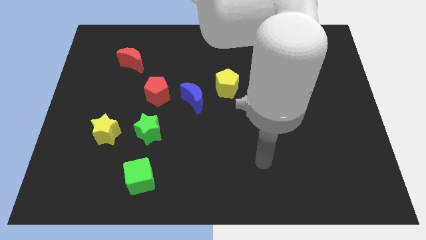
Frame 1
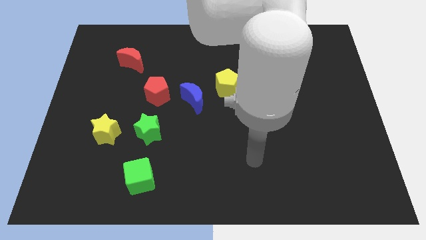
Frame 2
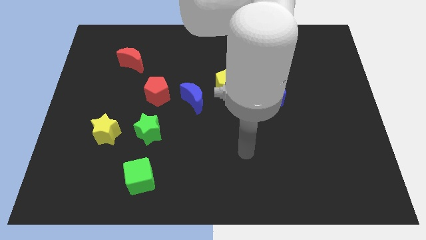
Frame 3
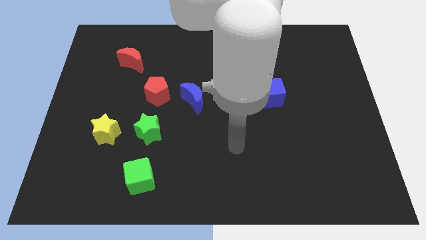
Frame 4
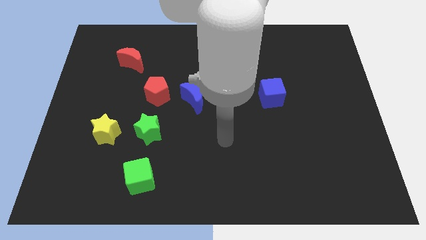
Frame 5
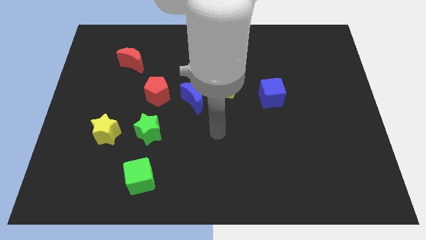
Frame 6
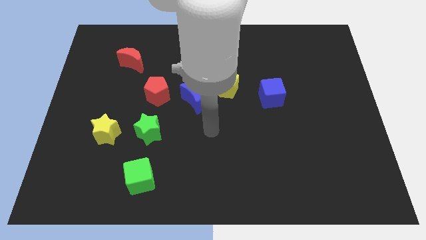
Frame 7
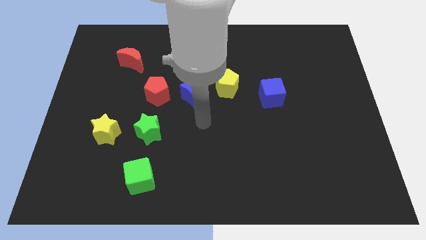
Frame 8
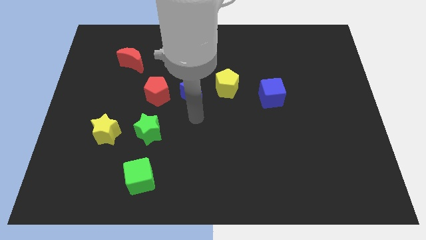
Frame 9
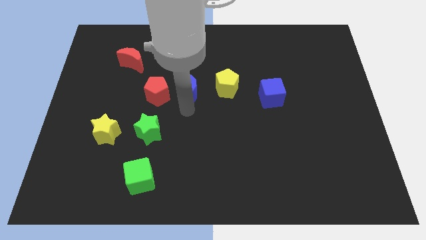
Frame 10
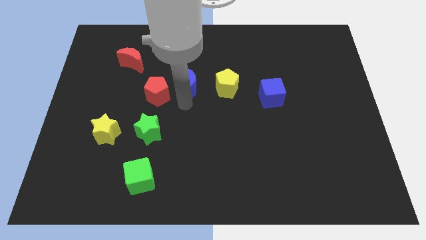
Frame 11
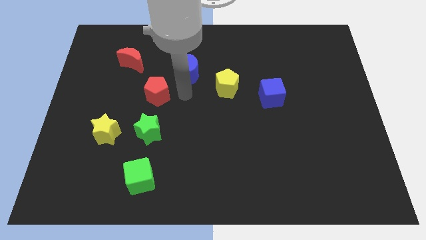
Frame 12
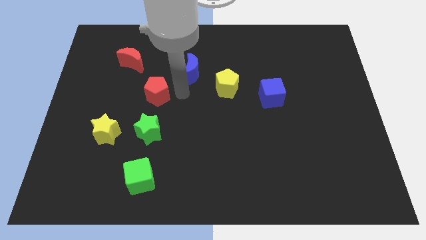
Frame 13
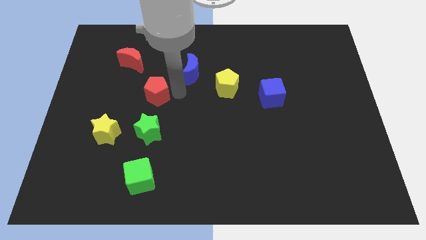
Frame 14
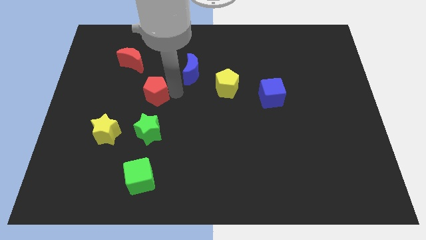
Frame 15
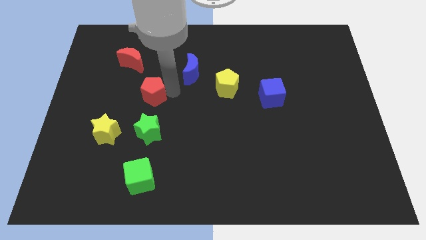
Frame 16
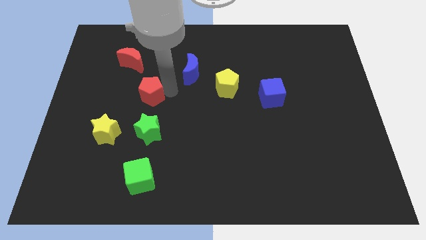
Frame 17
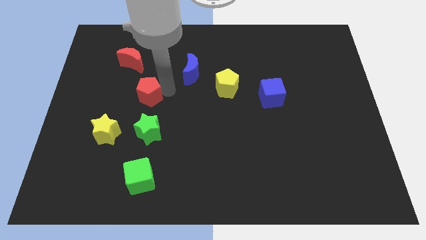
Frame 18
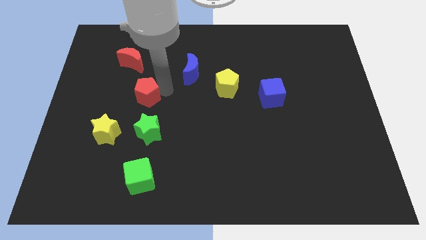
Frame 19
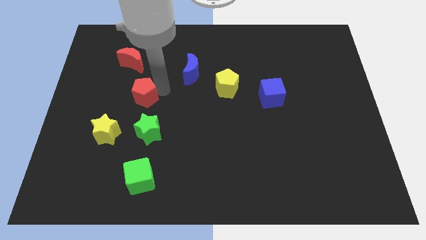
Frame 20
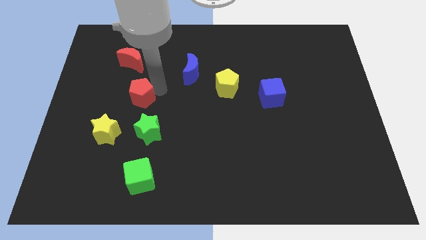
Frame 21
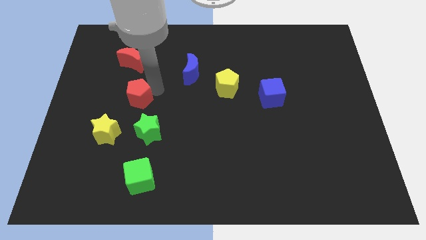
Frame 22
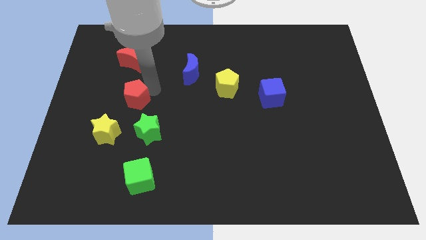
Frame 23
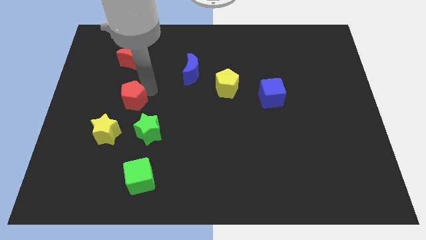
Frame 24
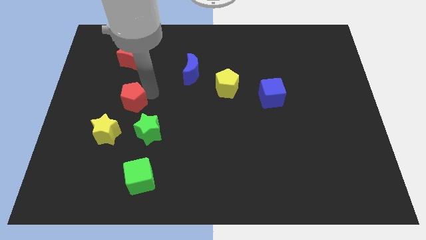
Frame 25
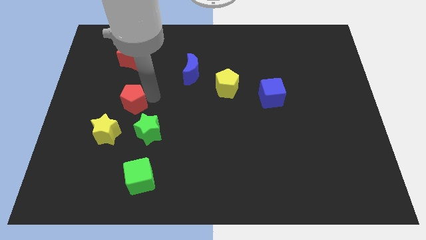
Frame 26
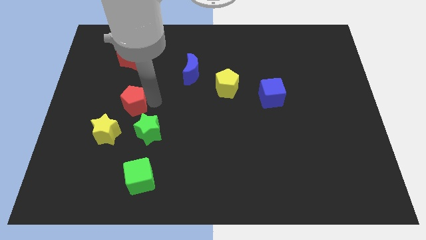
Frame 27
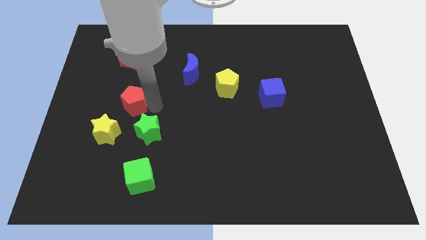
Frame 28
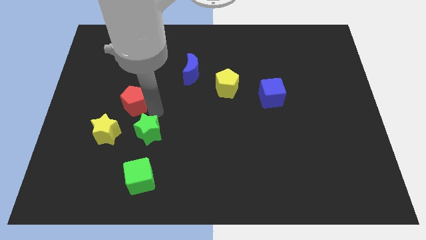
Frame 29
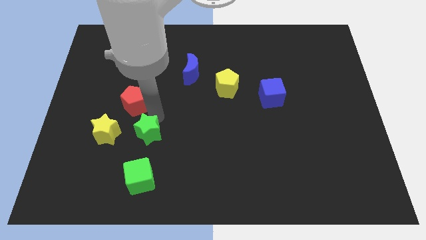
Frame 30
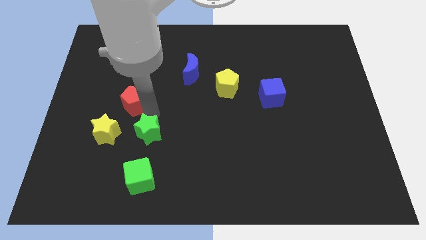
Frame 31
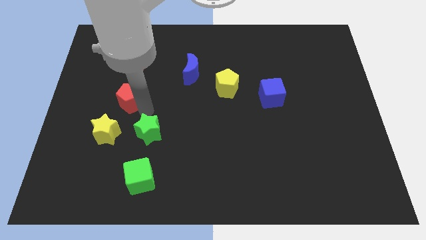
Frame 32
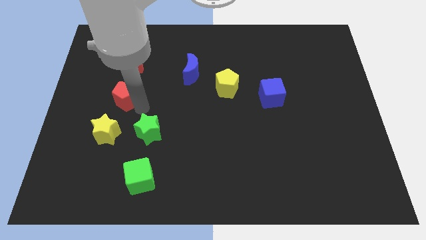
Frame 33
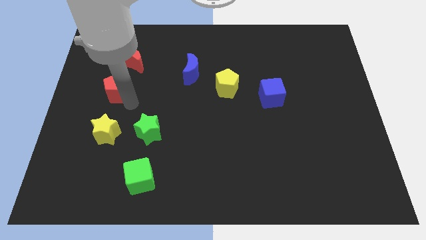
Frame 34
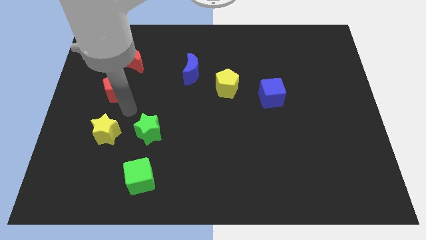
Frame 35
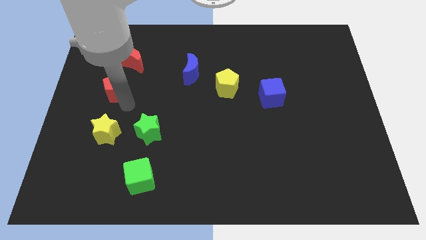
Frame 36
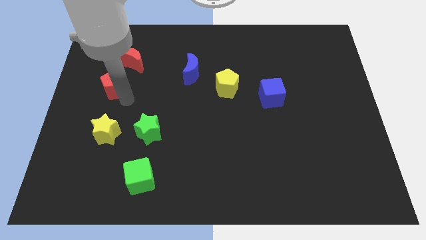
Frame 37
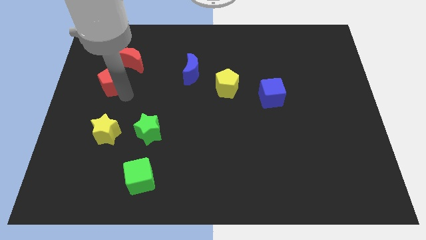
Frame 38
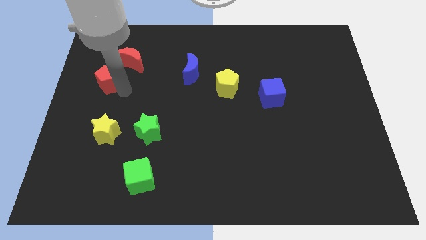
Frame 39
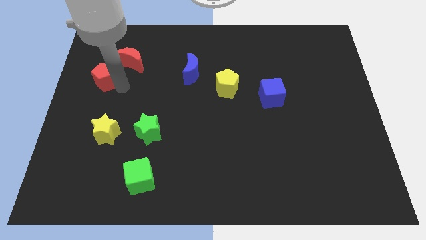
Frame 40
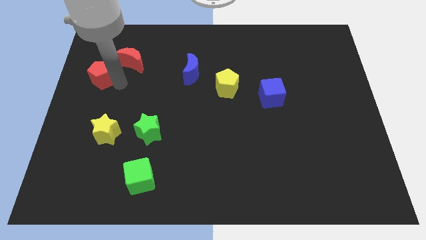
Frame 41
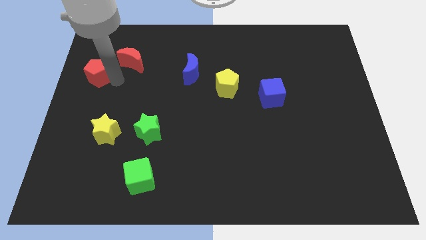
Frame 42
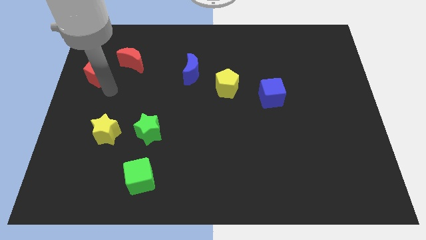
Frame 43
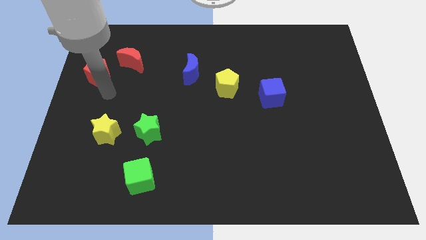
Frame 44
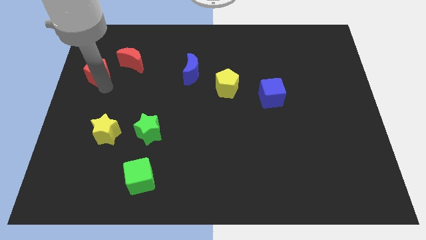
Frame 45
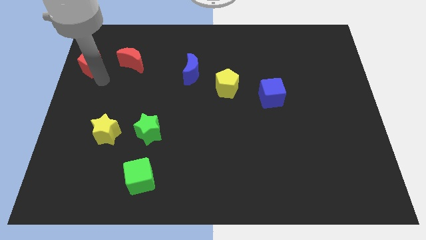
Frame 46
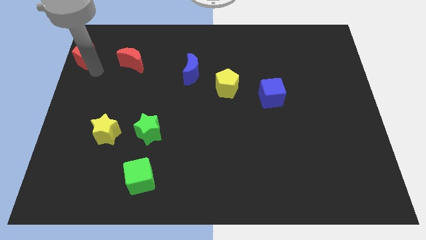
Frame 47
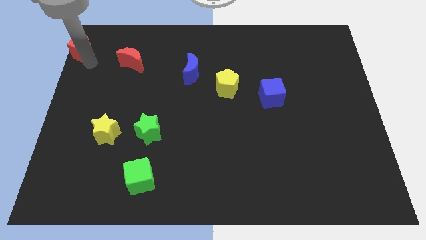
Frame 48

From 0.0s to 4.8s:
push the red pentagon to the upper left corner

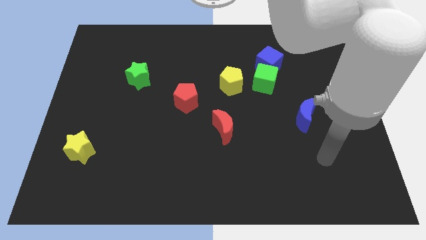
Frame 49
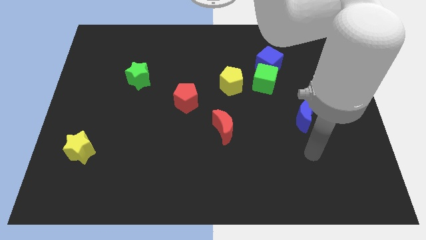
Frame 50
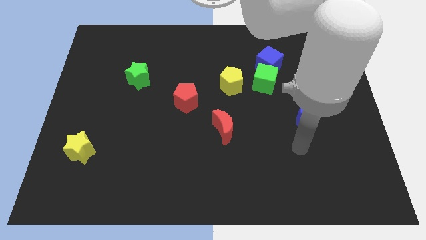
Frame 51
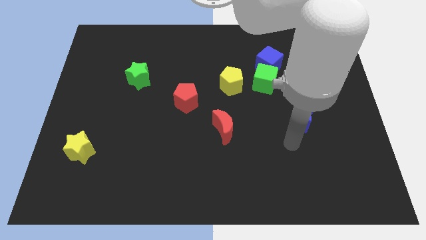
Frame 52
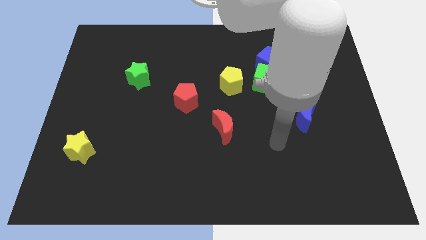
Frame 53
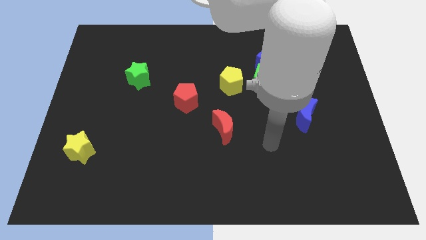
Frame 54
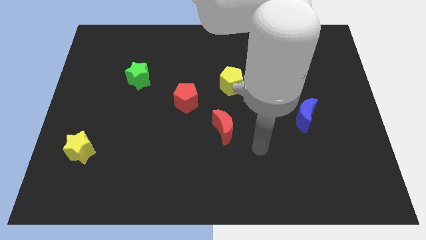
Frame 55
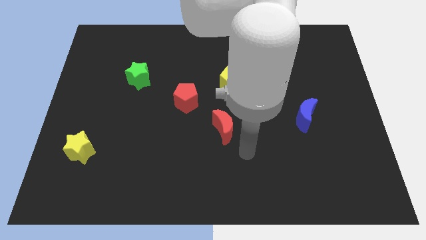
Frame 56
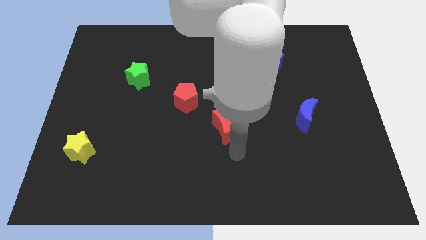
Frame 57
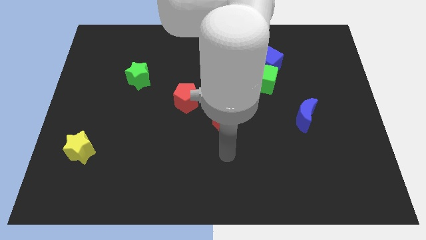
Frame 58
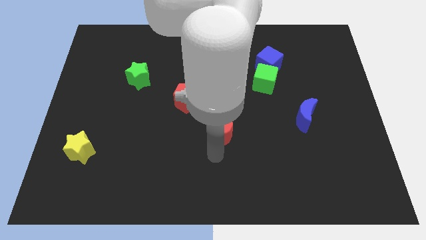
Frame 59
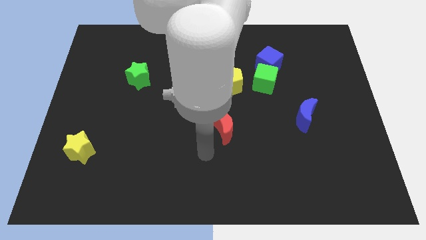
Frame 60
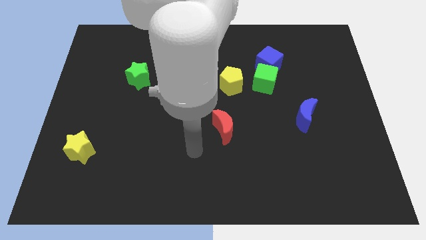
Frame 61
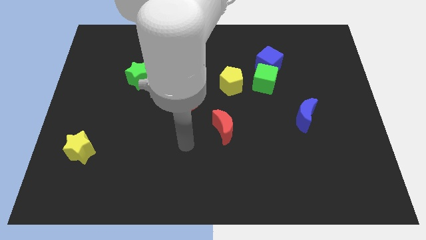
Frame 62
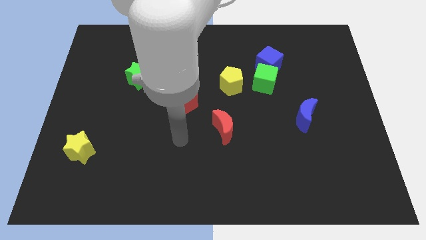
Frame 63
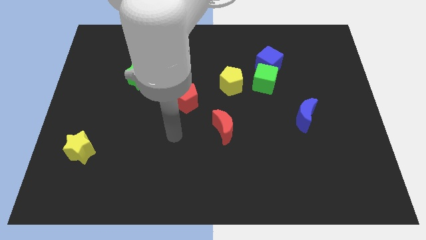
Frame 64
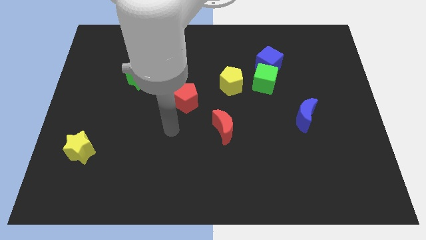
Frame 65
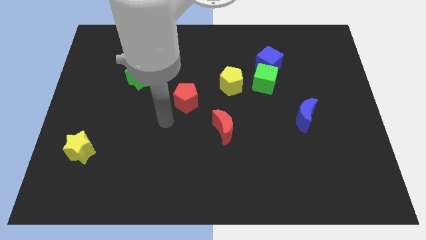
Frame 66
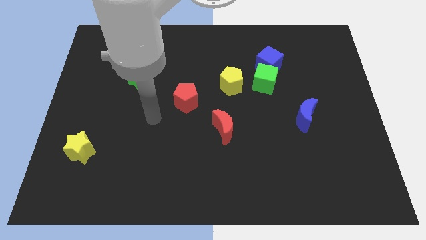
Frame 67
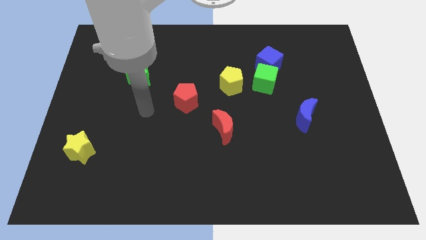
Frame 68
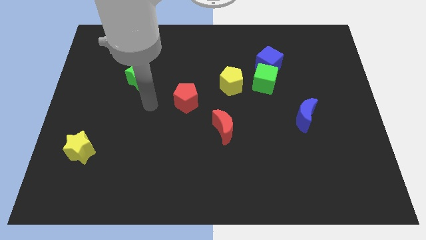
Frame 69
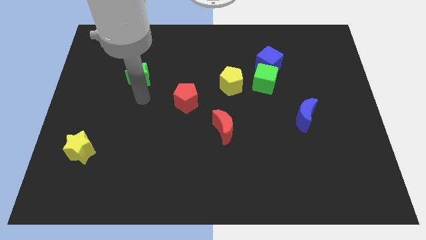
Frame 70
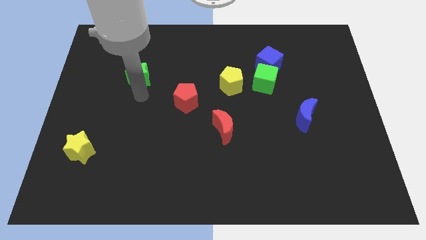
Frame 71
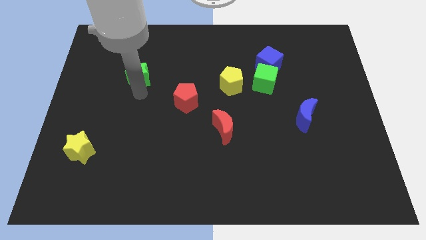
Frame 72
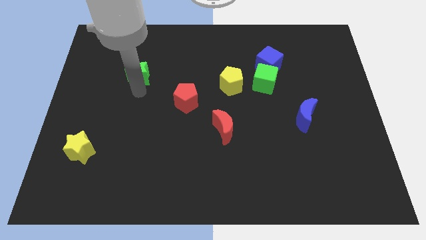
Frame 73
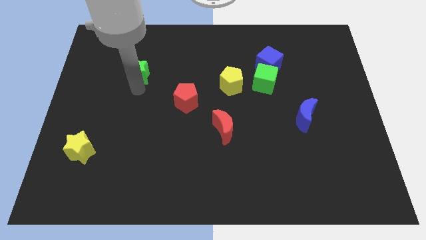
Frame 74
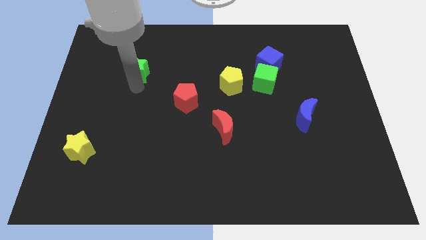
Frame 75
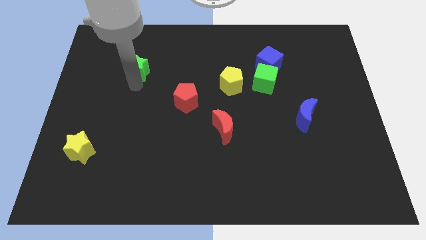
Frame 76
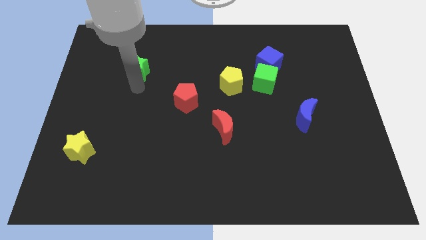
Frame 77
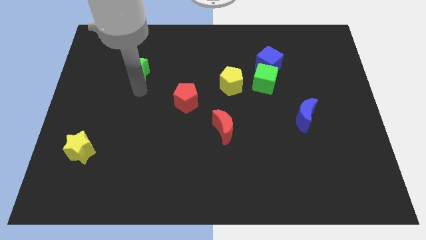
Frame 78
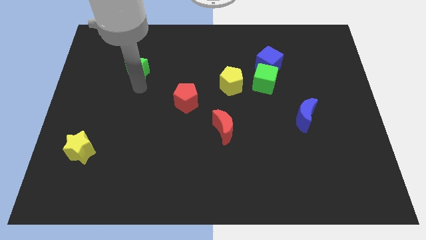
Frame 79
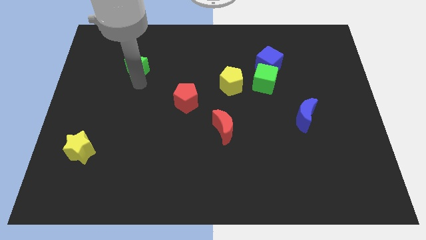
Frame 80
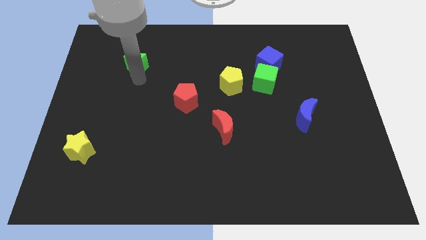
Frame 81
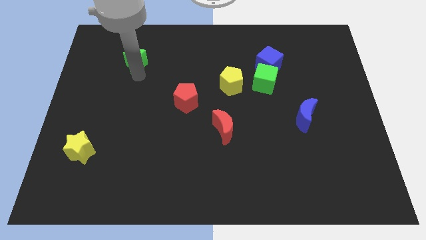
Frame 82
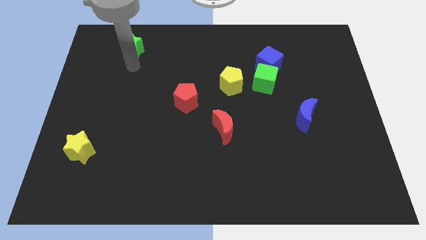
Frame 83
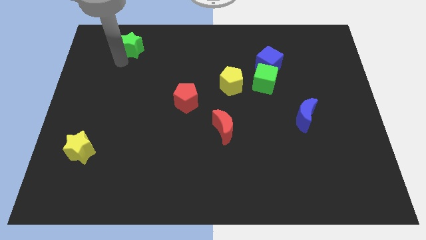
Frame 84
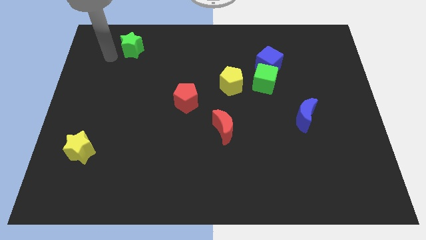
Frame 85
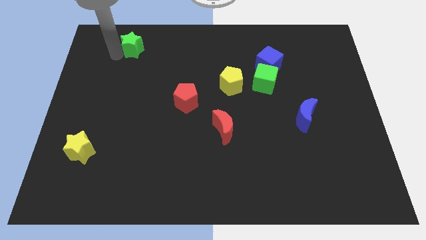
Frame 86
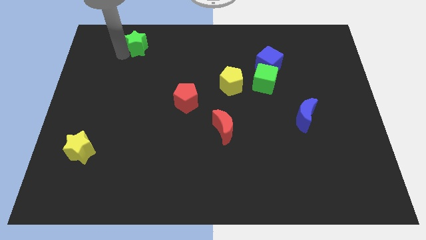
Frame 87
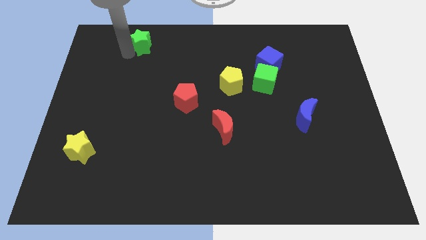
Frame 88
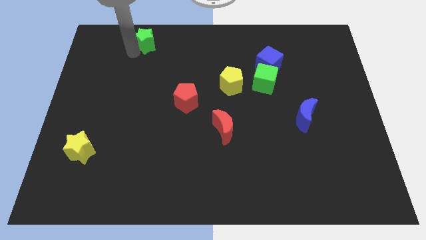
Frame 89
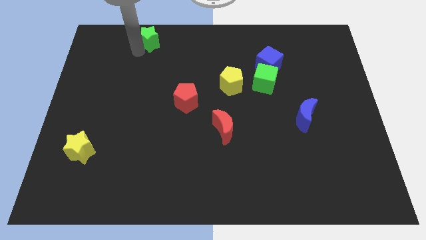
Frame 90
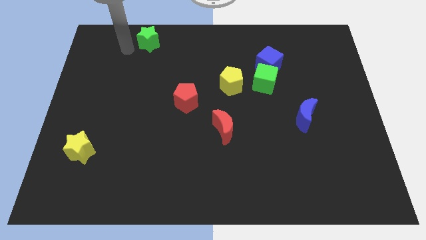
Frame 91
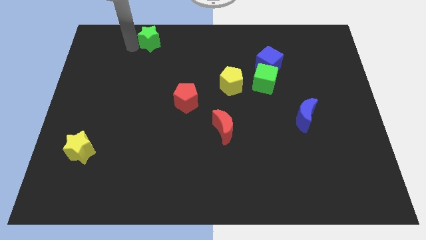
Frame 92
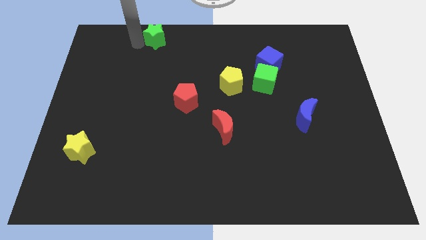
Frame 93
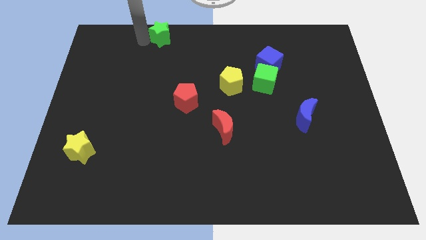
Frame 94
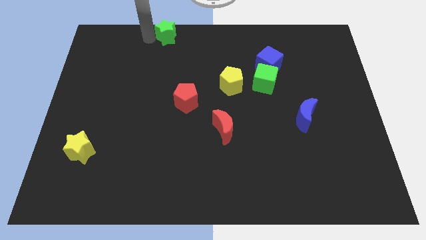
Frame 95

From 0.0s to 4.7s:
slide the green star to the top side
